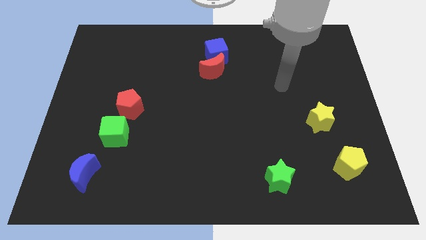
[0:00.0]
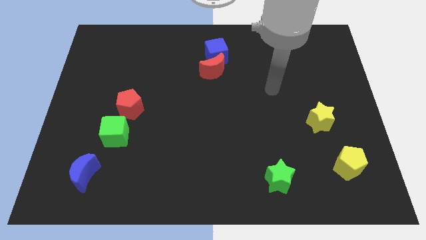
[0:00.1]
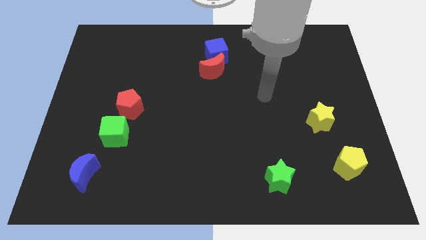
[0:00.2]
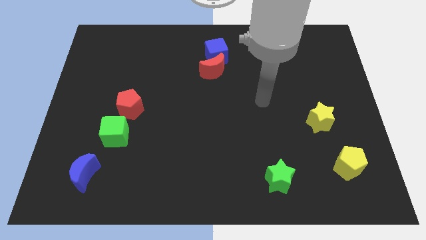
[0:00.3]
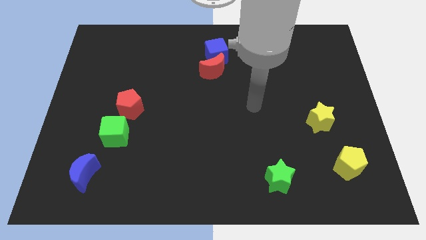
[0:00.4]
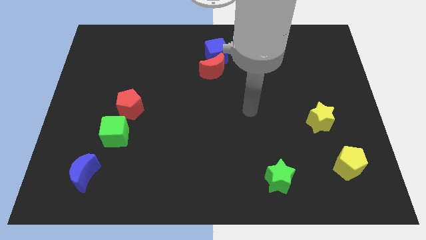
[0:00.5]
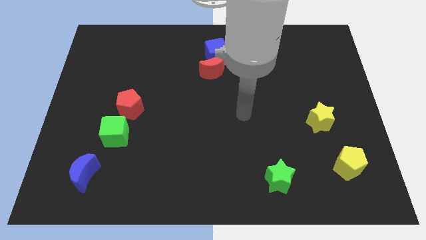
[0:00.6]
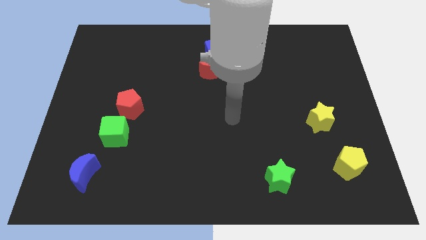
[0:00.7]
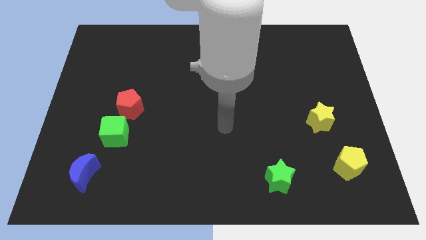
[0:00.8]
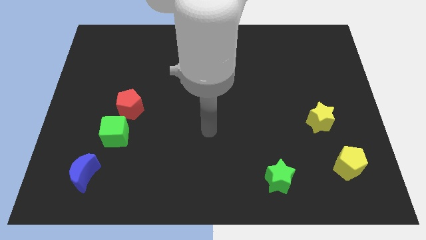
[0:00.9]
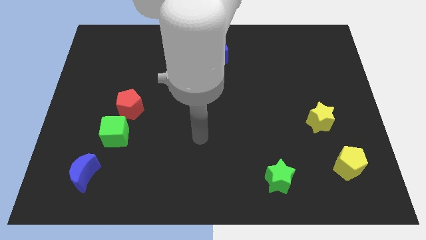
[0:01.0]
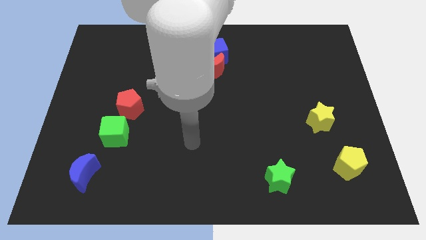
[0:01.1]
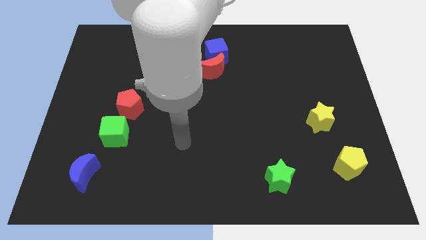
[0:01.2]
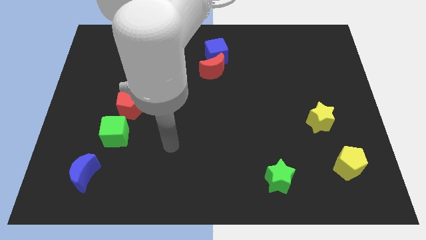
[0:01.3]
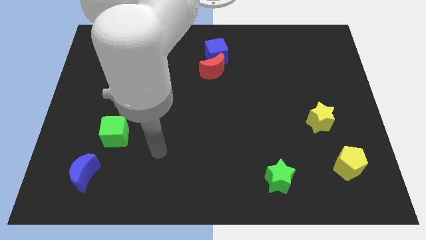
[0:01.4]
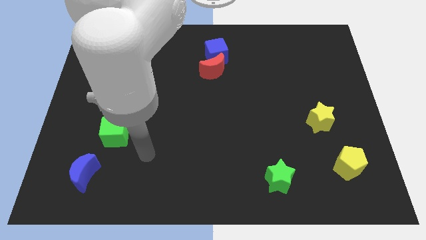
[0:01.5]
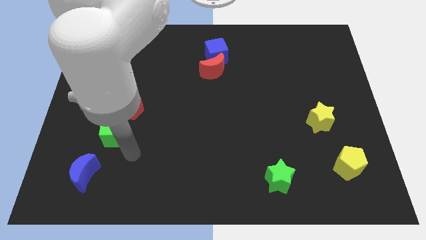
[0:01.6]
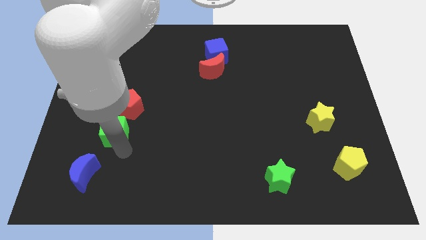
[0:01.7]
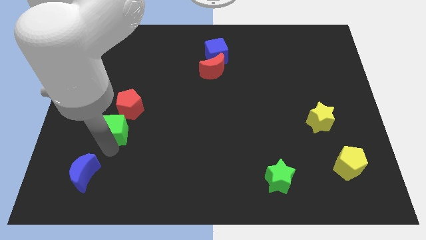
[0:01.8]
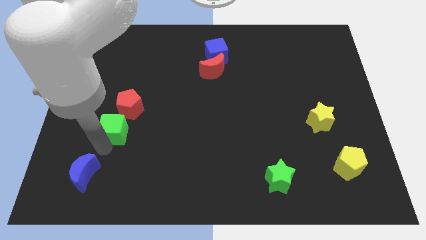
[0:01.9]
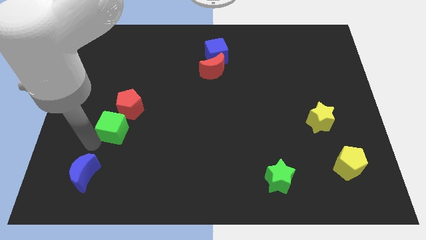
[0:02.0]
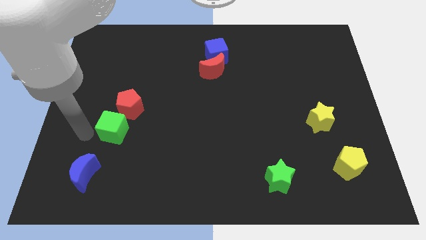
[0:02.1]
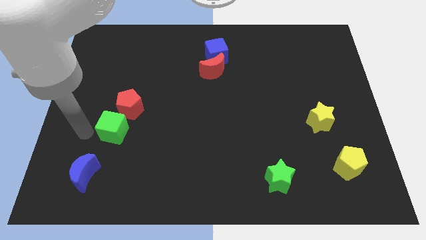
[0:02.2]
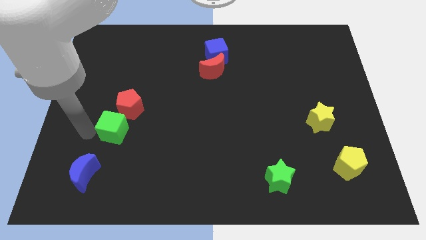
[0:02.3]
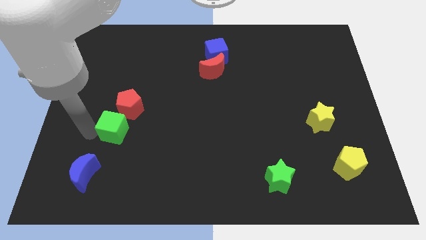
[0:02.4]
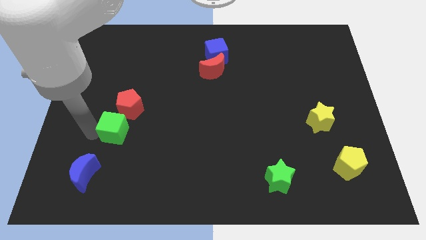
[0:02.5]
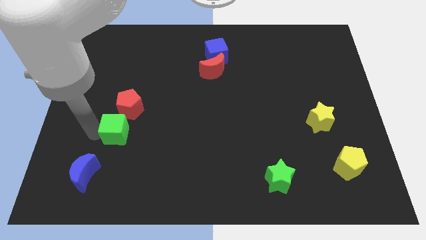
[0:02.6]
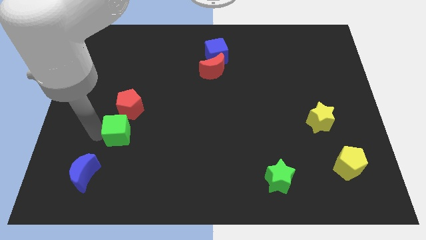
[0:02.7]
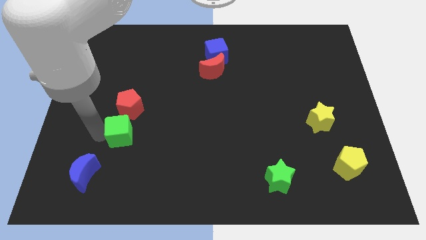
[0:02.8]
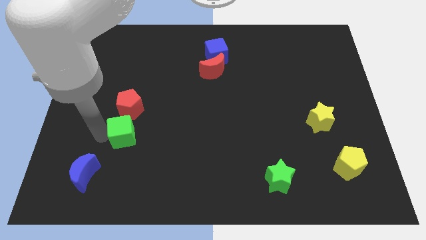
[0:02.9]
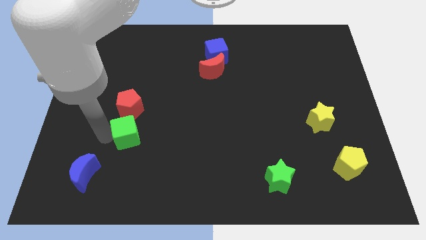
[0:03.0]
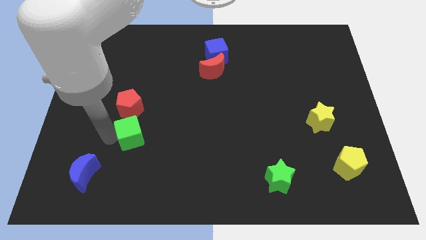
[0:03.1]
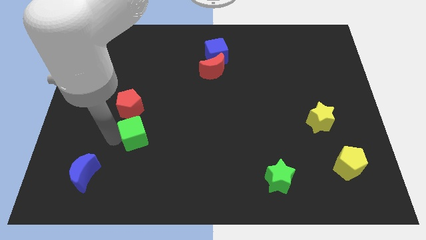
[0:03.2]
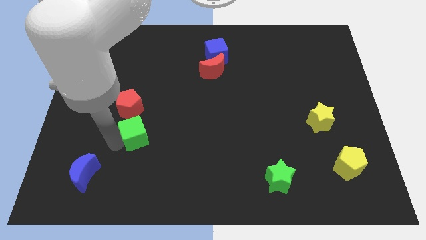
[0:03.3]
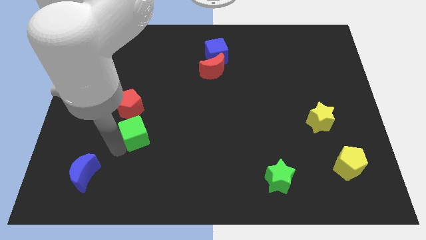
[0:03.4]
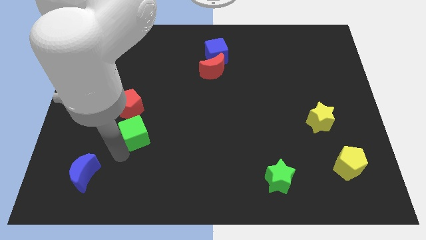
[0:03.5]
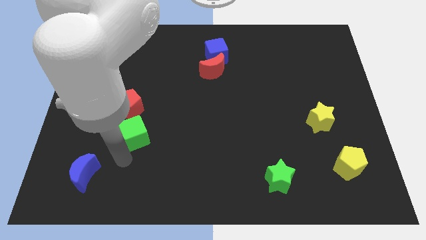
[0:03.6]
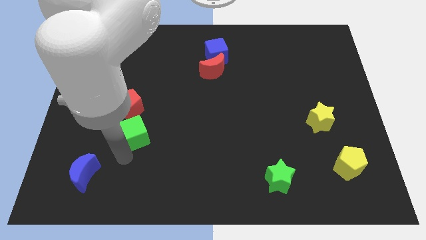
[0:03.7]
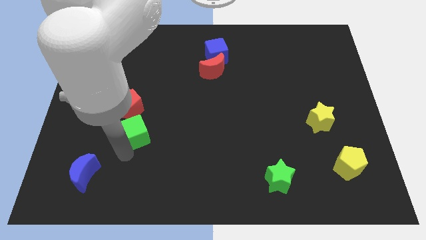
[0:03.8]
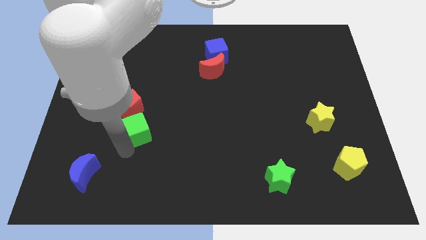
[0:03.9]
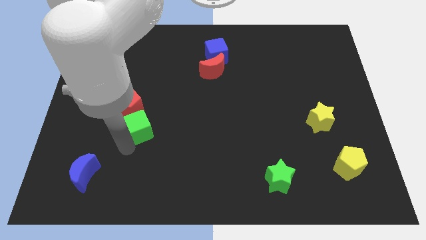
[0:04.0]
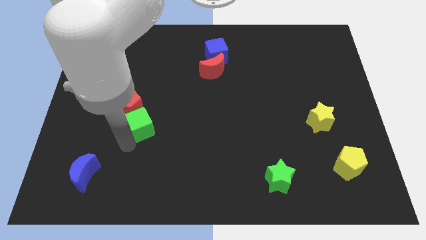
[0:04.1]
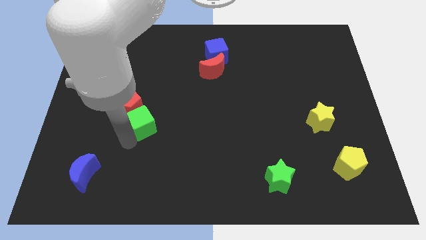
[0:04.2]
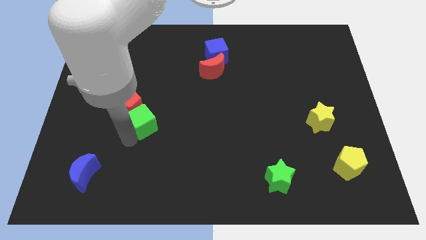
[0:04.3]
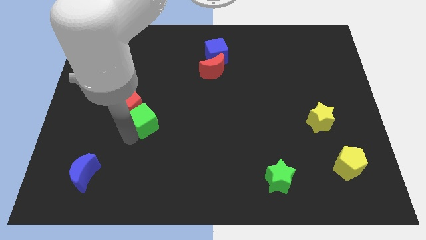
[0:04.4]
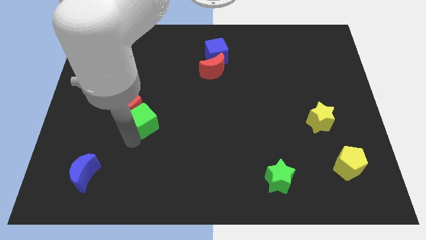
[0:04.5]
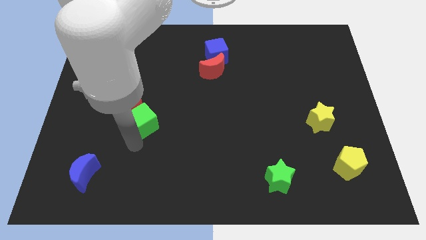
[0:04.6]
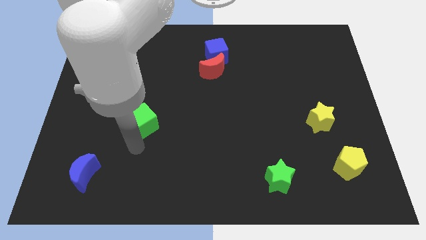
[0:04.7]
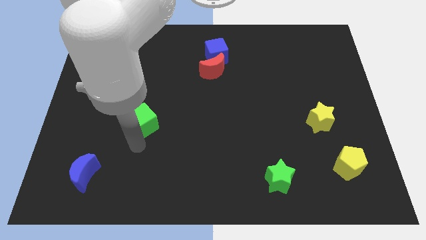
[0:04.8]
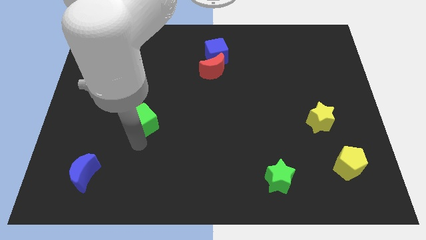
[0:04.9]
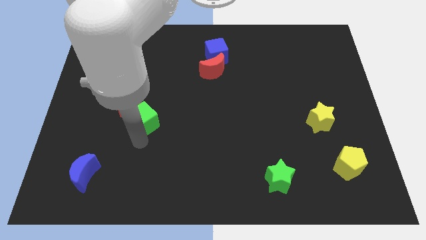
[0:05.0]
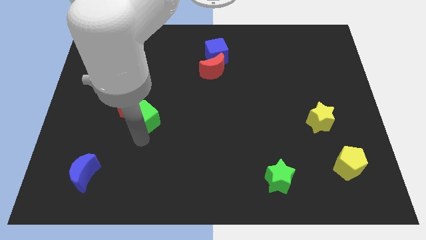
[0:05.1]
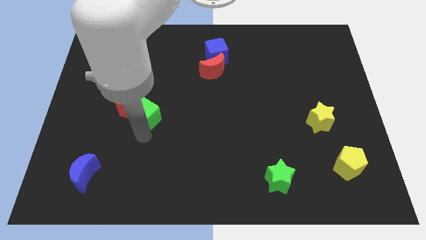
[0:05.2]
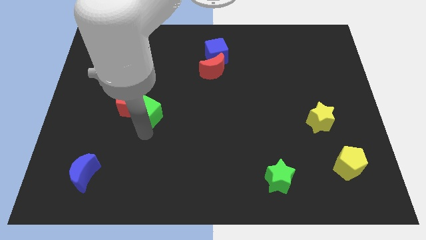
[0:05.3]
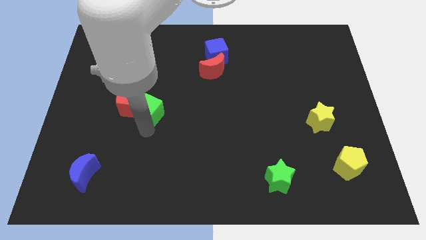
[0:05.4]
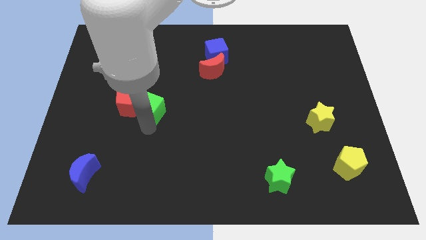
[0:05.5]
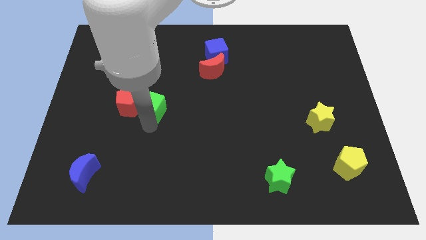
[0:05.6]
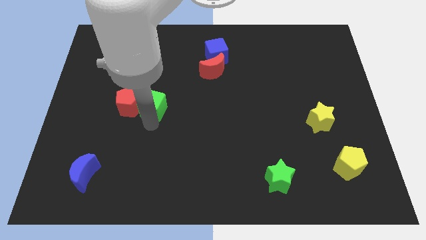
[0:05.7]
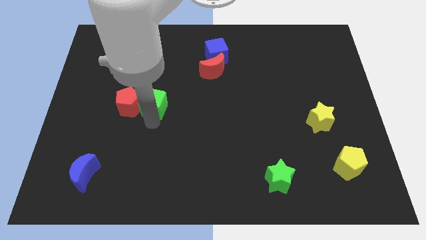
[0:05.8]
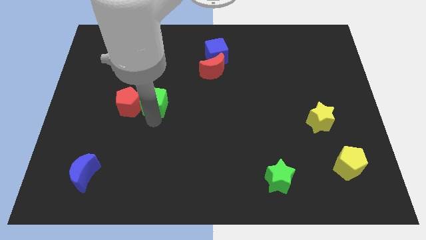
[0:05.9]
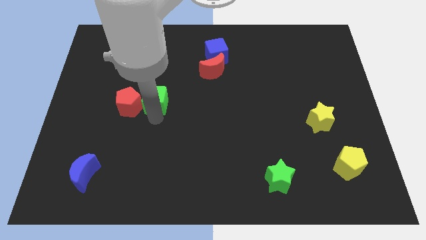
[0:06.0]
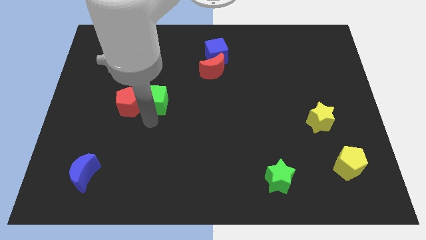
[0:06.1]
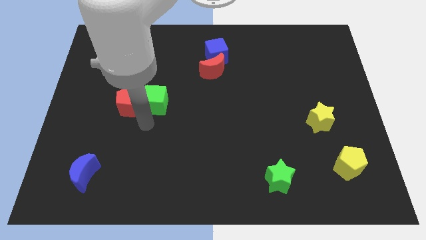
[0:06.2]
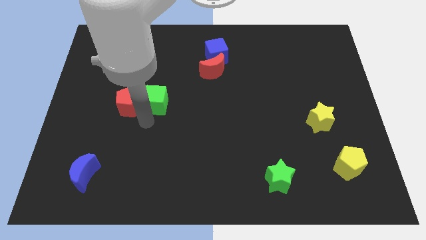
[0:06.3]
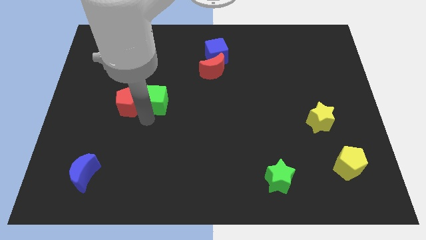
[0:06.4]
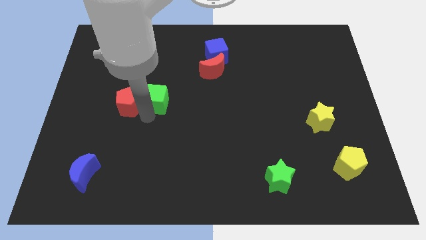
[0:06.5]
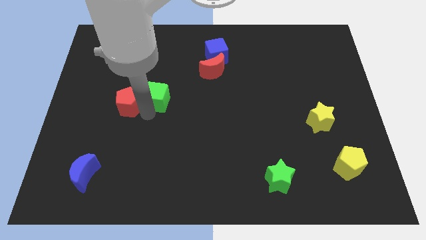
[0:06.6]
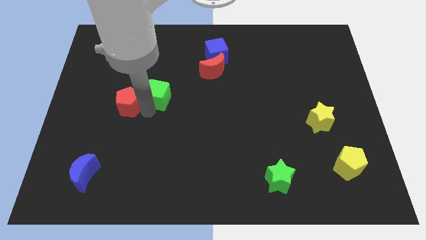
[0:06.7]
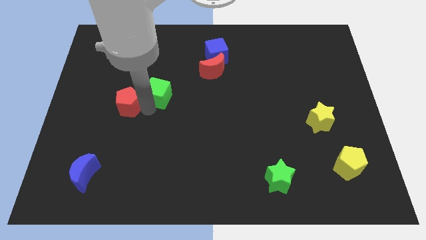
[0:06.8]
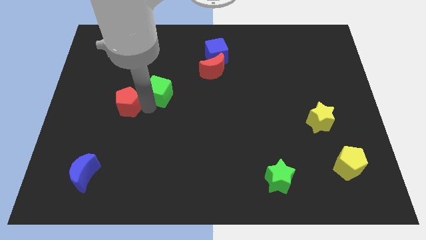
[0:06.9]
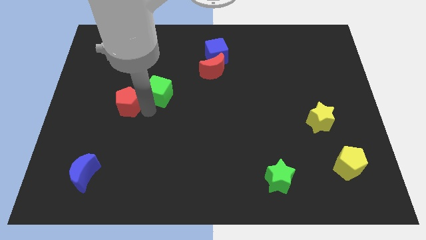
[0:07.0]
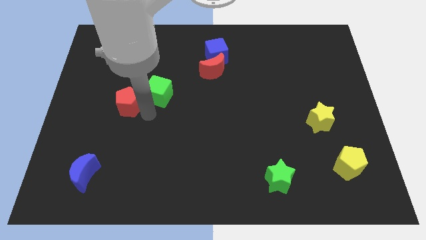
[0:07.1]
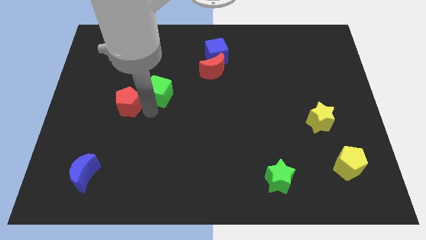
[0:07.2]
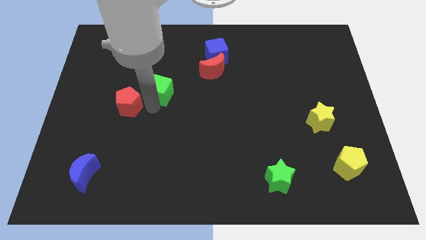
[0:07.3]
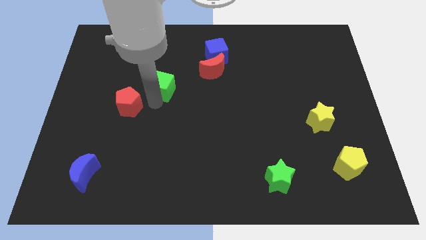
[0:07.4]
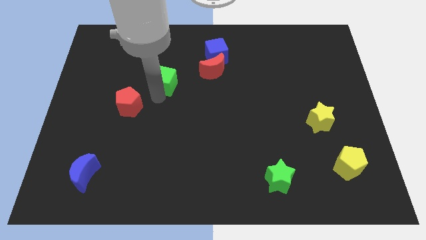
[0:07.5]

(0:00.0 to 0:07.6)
move the green cube to the left side of the red moon
